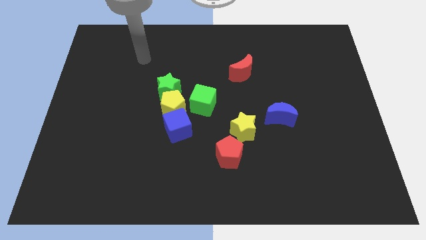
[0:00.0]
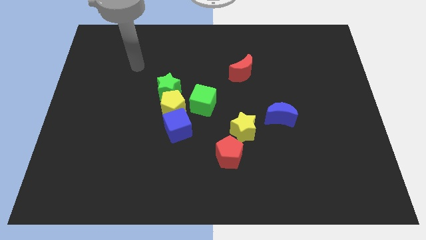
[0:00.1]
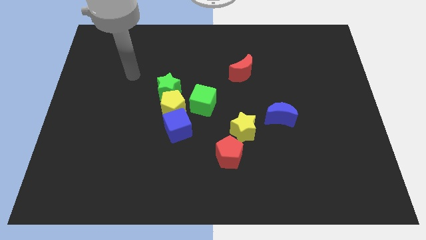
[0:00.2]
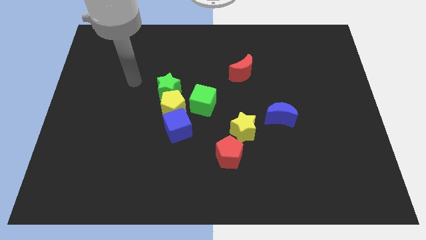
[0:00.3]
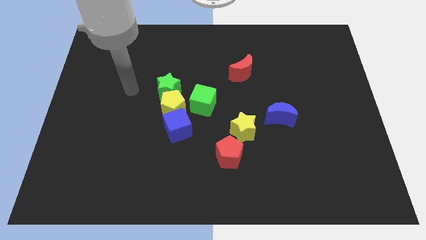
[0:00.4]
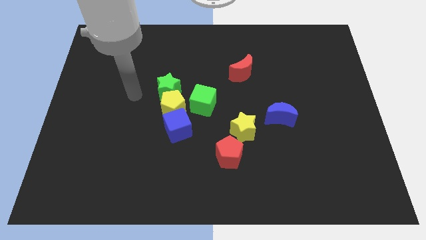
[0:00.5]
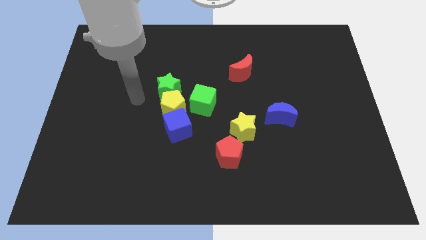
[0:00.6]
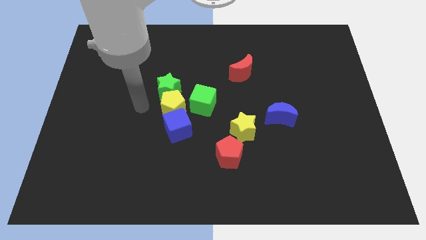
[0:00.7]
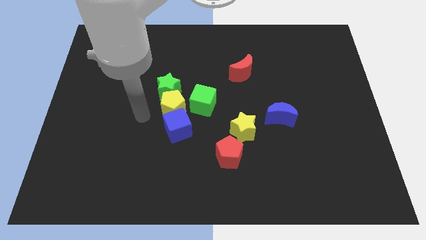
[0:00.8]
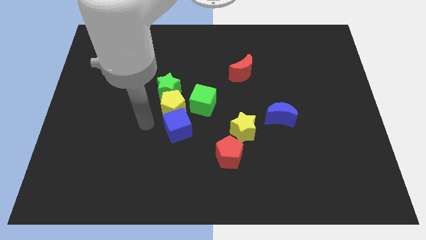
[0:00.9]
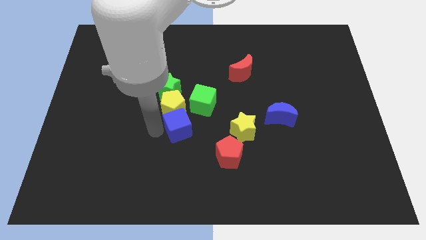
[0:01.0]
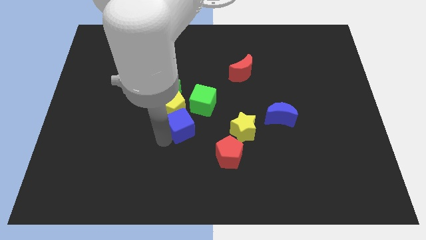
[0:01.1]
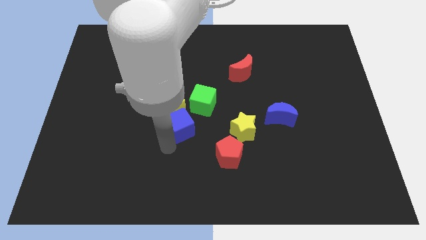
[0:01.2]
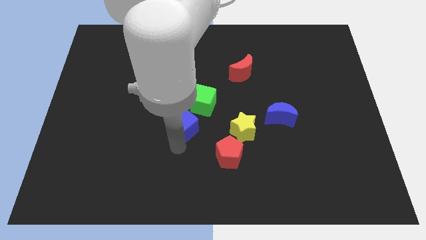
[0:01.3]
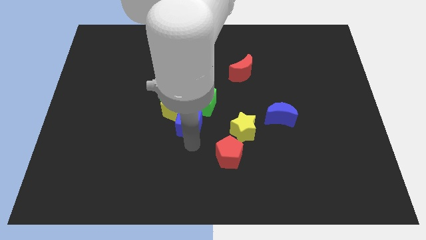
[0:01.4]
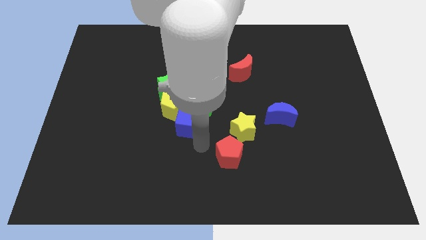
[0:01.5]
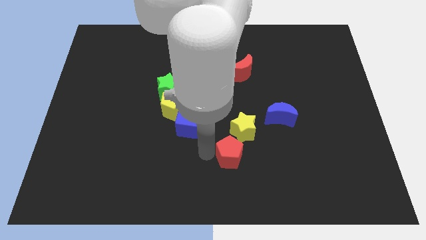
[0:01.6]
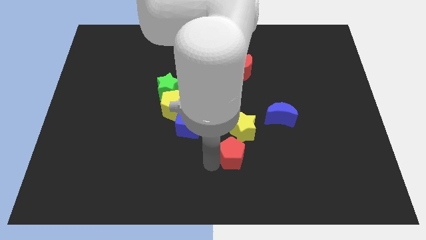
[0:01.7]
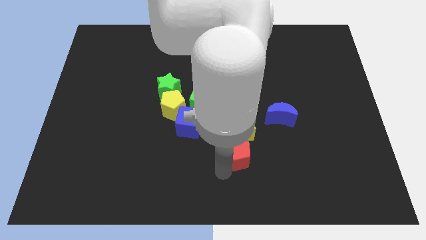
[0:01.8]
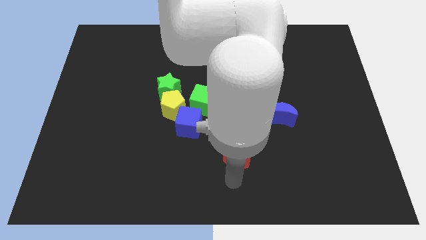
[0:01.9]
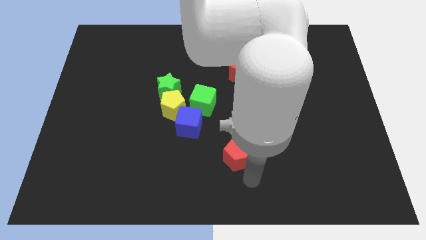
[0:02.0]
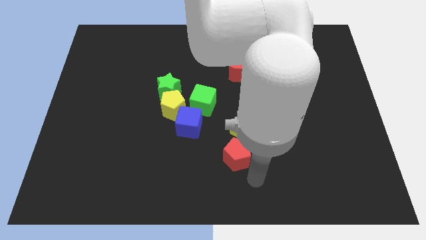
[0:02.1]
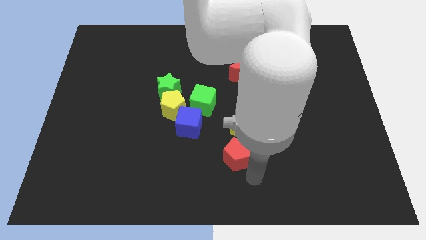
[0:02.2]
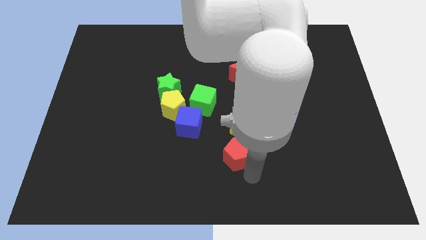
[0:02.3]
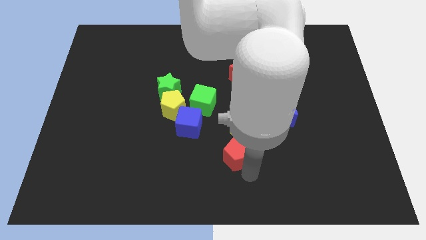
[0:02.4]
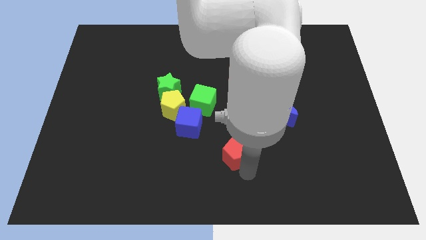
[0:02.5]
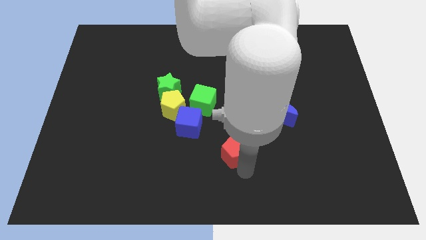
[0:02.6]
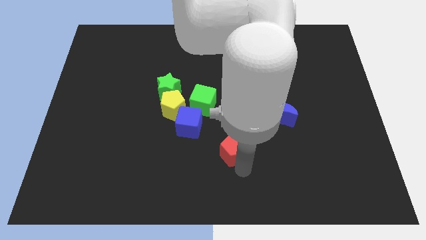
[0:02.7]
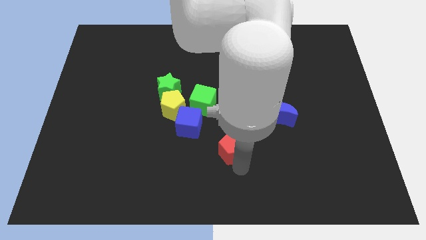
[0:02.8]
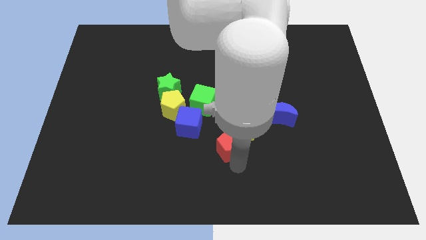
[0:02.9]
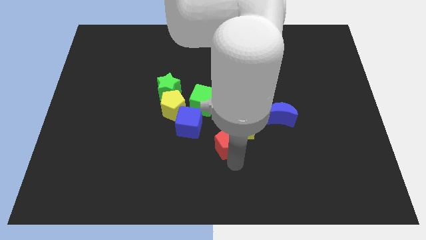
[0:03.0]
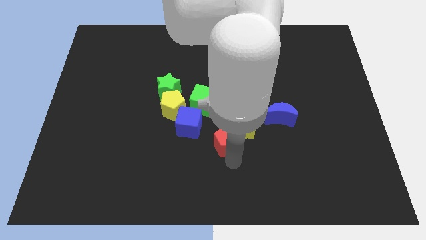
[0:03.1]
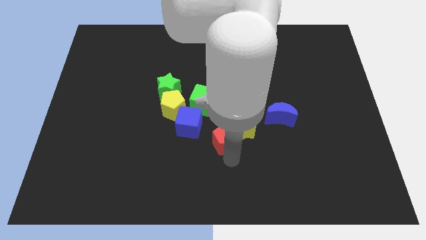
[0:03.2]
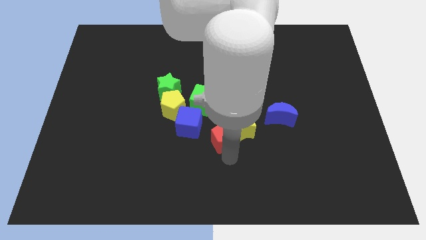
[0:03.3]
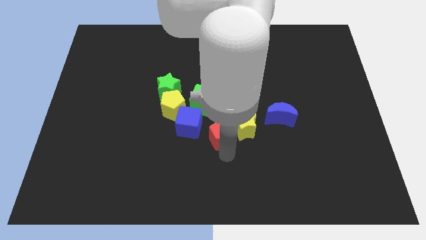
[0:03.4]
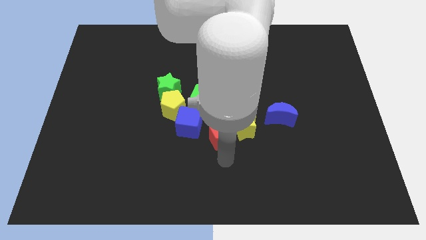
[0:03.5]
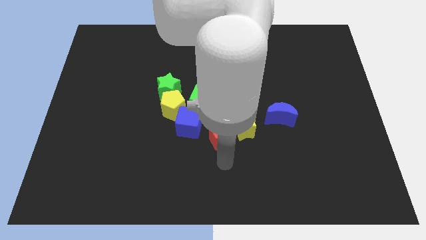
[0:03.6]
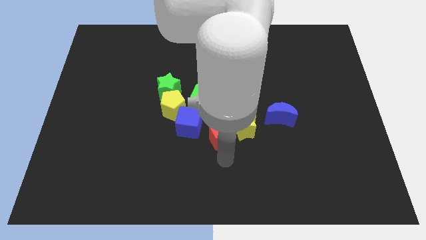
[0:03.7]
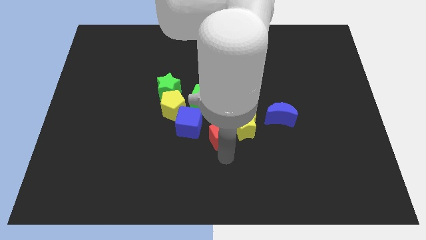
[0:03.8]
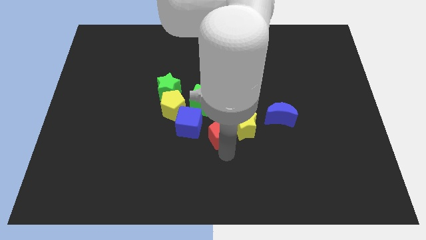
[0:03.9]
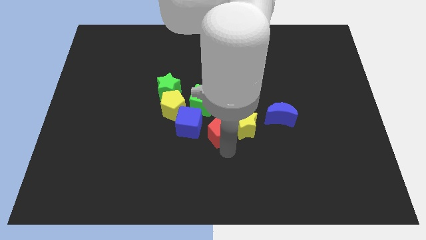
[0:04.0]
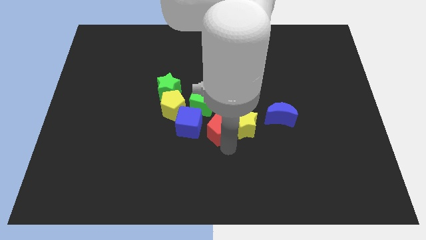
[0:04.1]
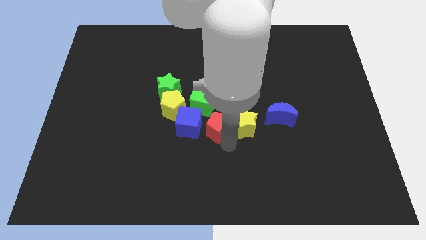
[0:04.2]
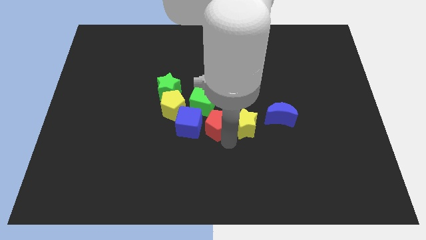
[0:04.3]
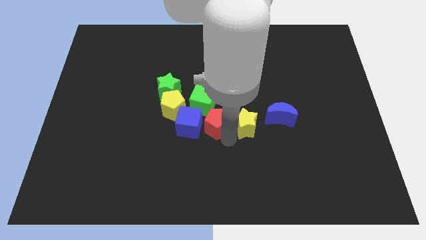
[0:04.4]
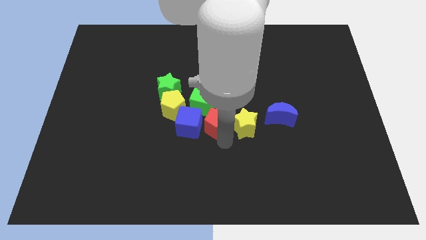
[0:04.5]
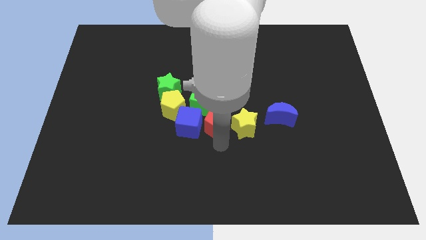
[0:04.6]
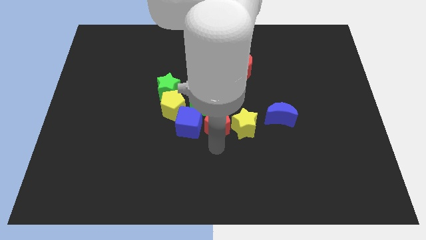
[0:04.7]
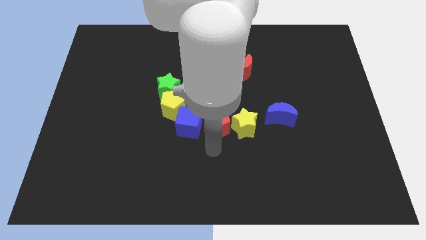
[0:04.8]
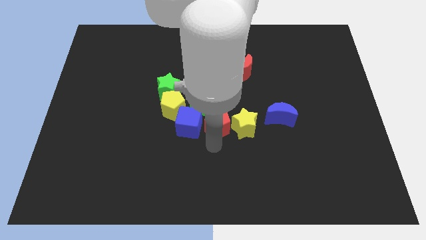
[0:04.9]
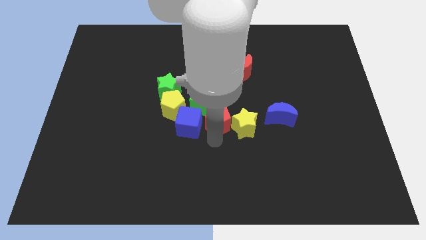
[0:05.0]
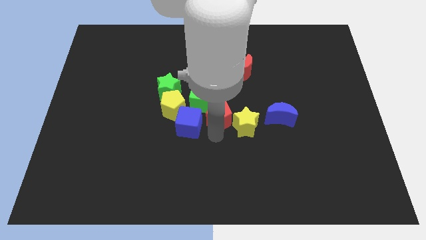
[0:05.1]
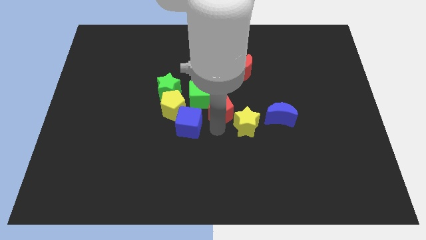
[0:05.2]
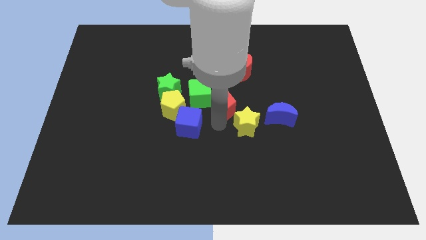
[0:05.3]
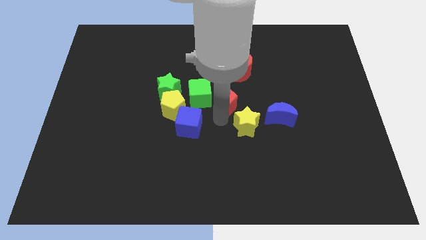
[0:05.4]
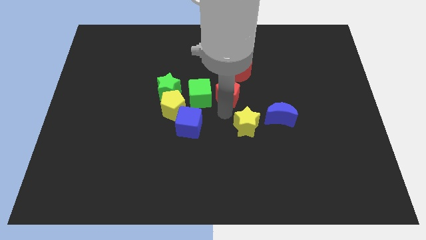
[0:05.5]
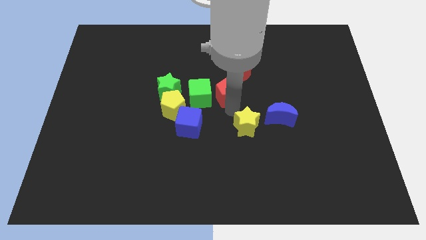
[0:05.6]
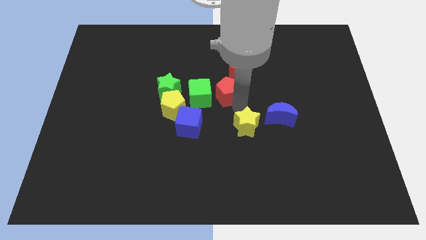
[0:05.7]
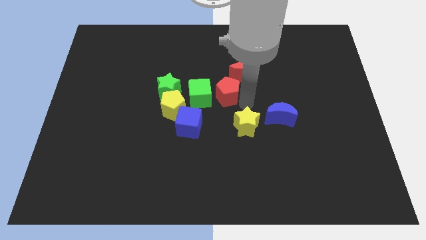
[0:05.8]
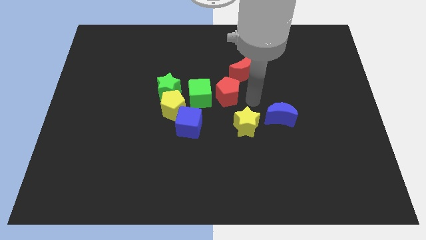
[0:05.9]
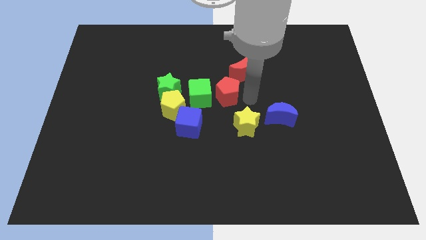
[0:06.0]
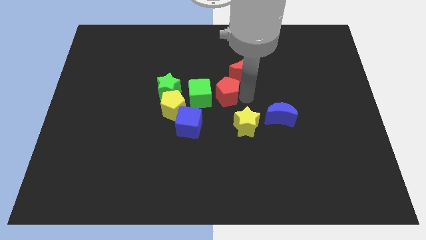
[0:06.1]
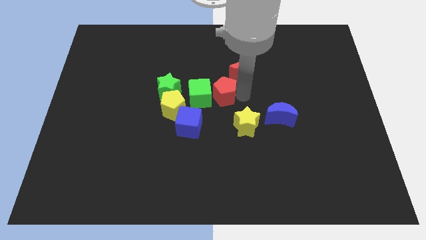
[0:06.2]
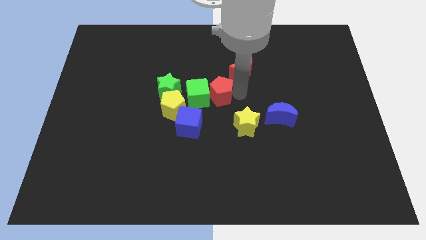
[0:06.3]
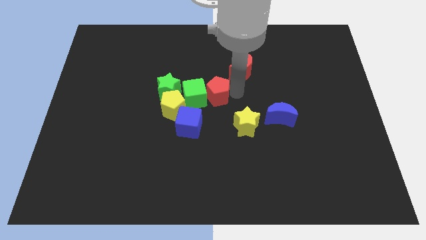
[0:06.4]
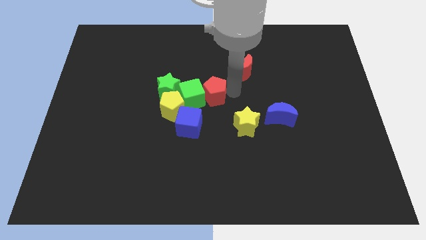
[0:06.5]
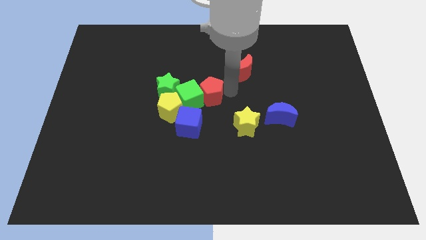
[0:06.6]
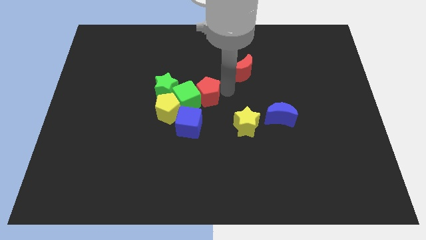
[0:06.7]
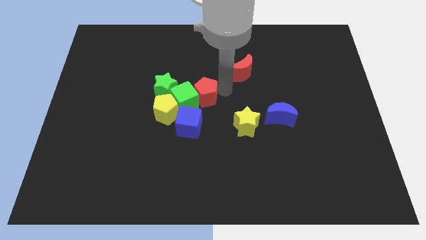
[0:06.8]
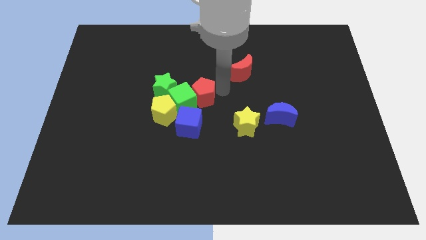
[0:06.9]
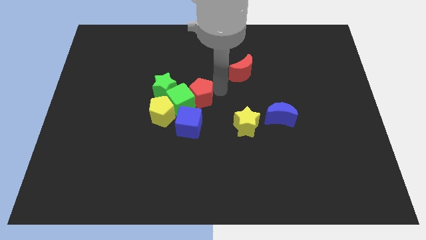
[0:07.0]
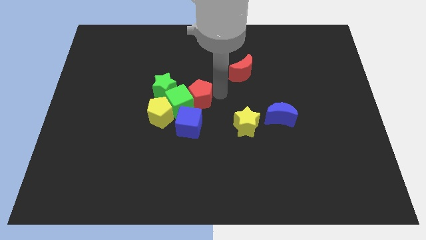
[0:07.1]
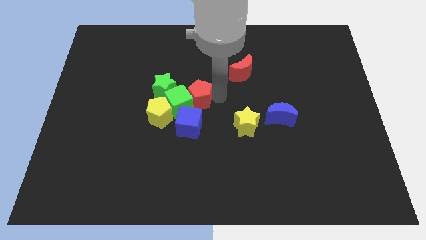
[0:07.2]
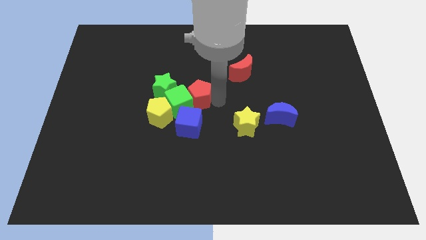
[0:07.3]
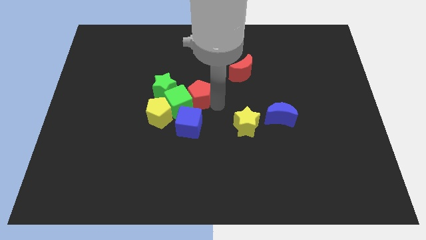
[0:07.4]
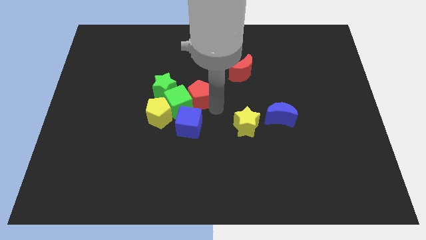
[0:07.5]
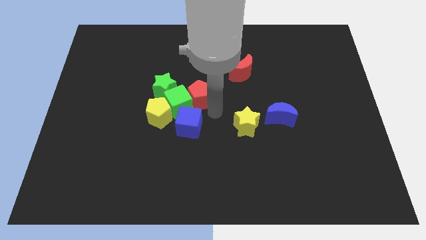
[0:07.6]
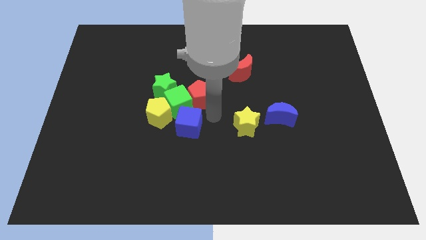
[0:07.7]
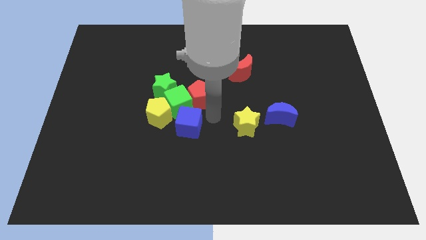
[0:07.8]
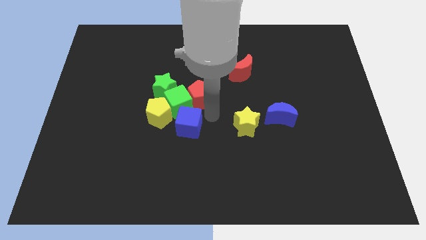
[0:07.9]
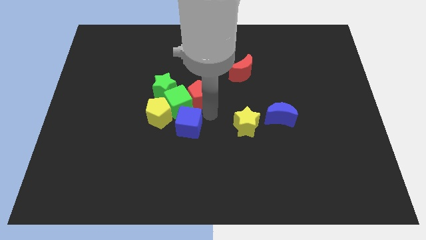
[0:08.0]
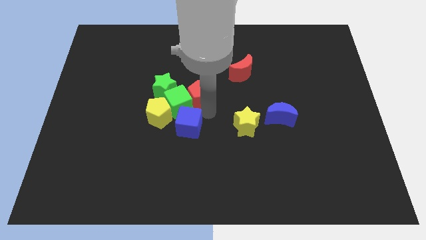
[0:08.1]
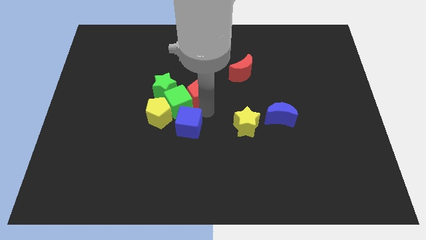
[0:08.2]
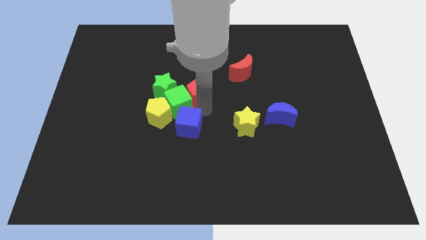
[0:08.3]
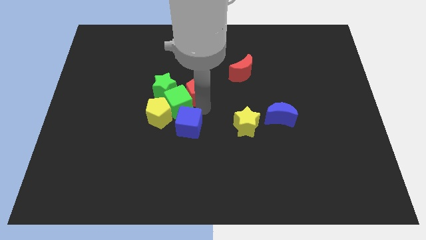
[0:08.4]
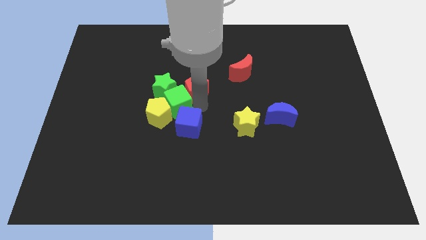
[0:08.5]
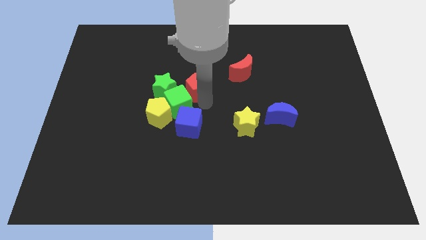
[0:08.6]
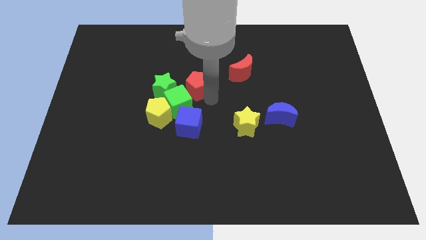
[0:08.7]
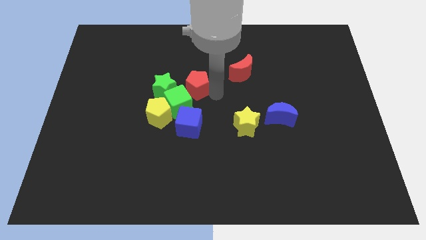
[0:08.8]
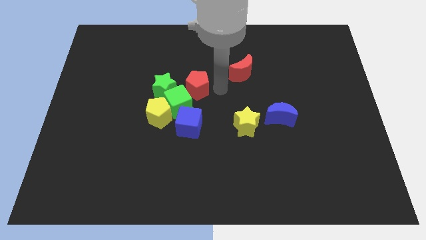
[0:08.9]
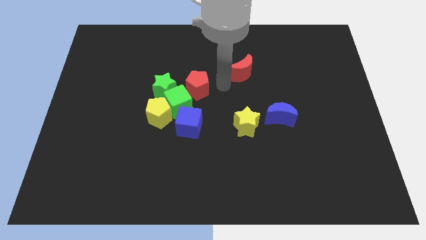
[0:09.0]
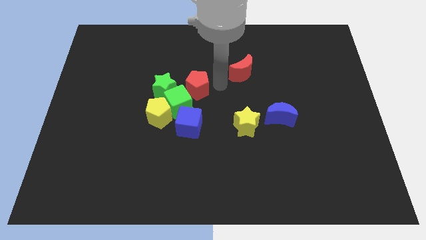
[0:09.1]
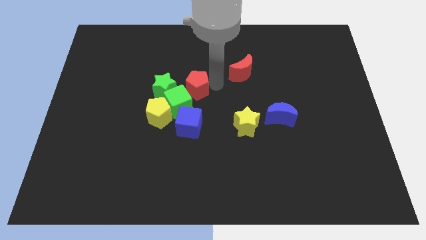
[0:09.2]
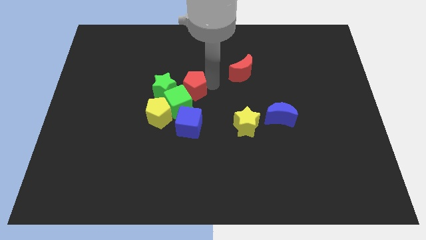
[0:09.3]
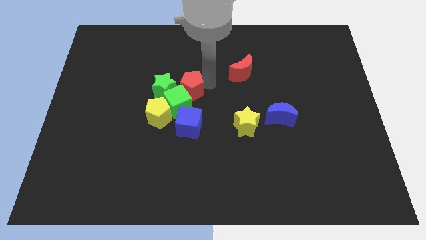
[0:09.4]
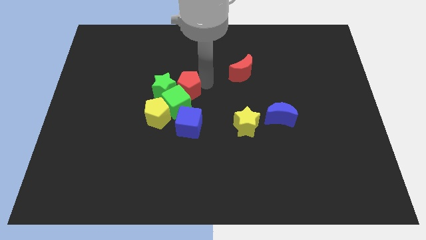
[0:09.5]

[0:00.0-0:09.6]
put the red pentagon close to the green star
